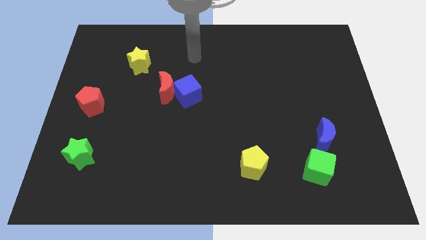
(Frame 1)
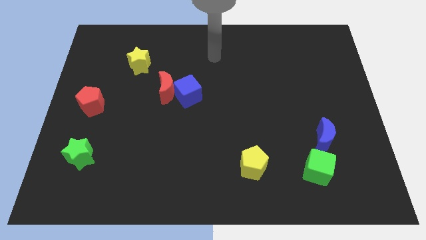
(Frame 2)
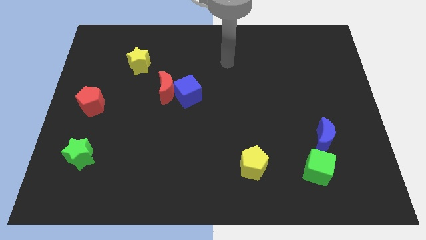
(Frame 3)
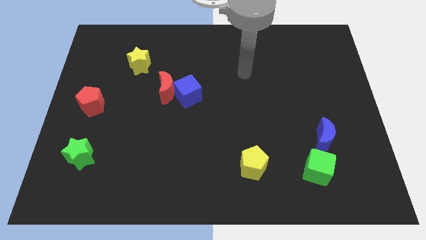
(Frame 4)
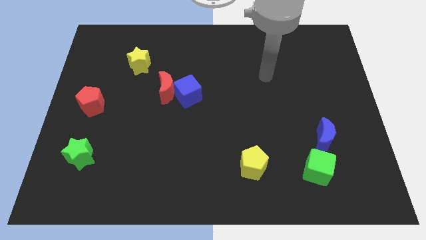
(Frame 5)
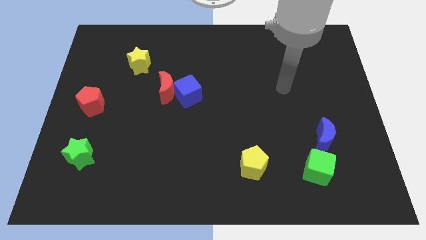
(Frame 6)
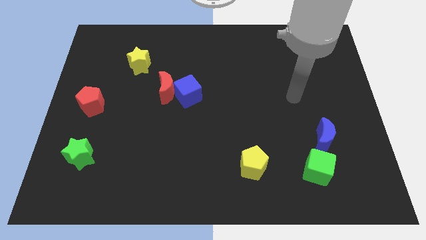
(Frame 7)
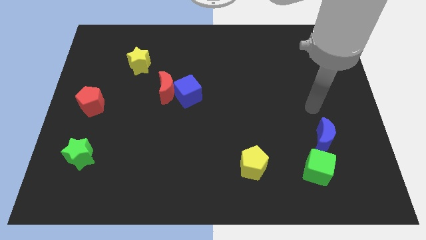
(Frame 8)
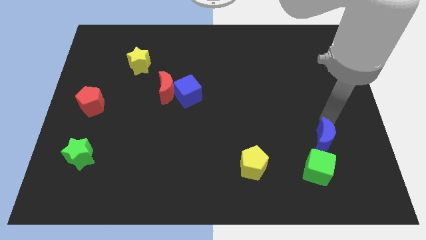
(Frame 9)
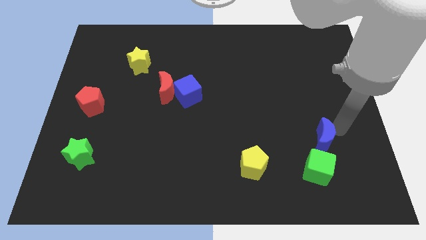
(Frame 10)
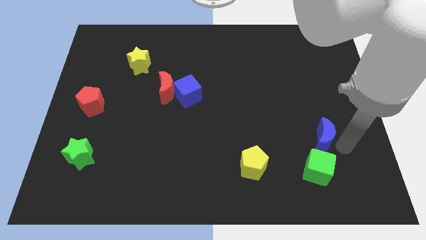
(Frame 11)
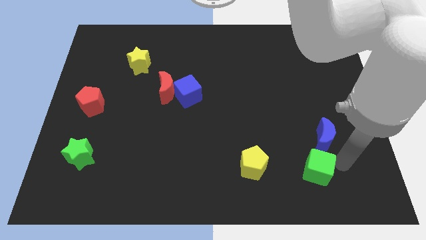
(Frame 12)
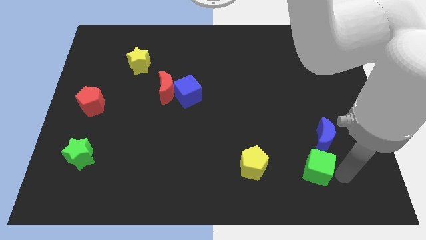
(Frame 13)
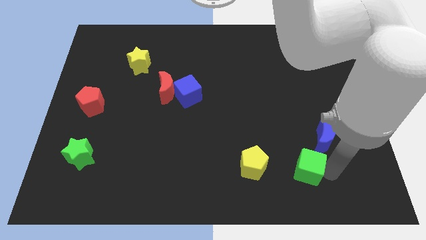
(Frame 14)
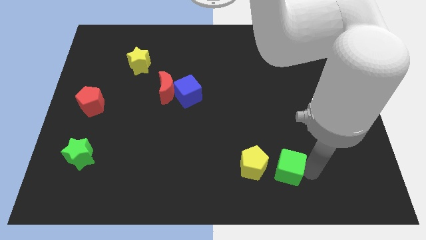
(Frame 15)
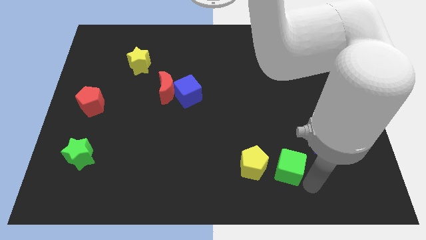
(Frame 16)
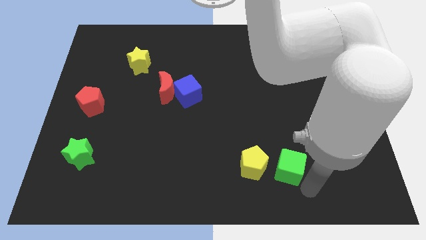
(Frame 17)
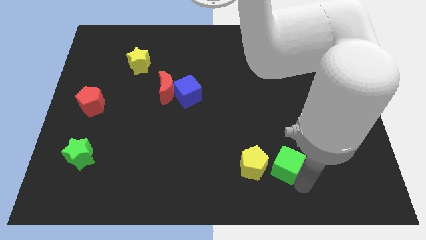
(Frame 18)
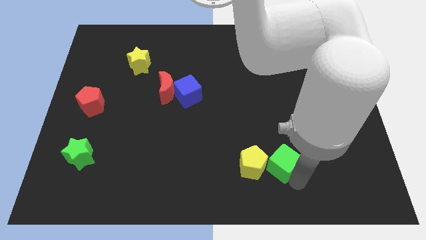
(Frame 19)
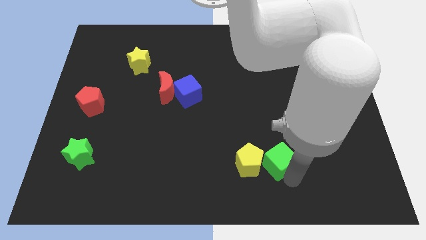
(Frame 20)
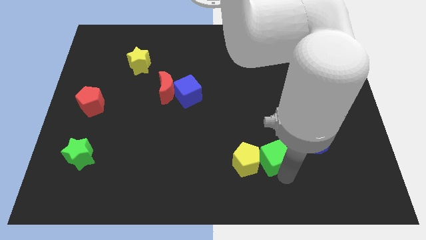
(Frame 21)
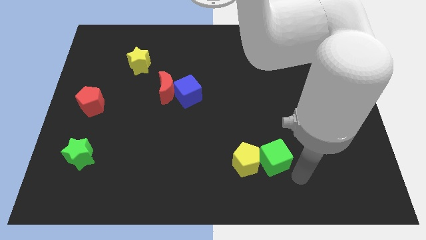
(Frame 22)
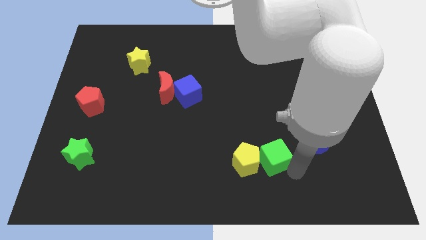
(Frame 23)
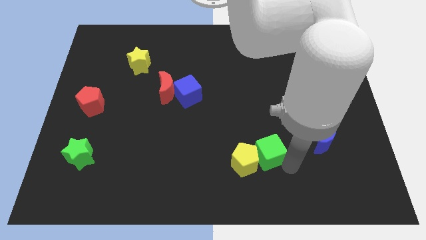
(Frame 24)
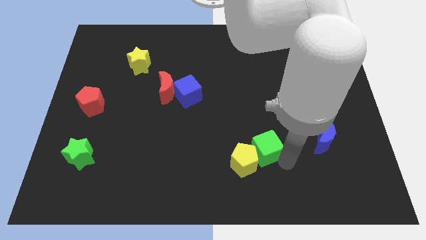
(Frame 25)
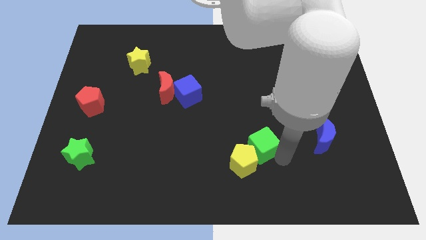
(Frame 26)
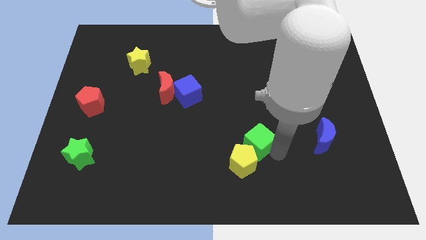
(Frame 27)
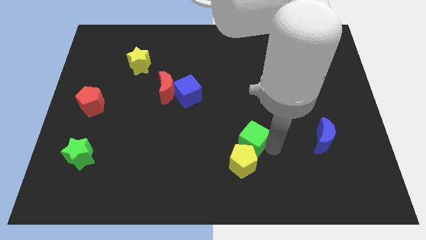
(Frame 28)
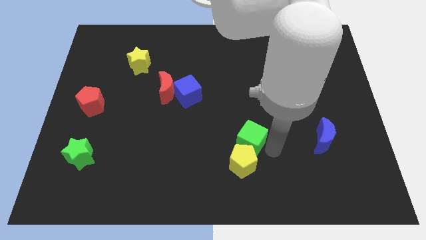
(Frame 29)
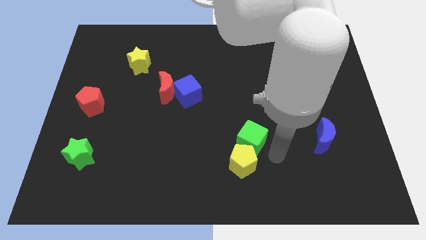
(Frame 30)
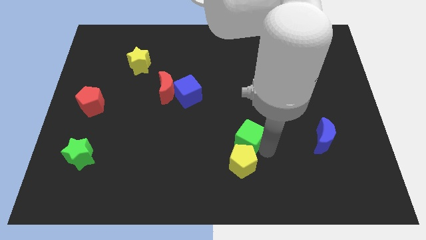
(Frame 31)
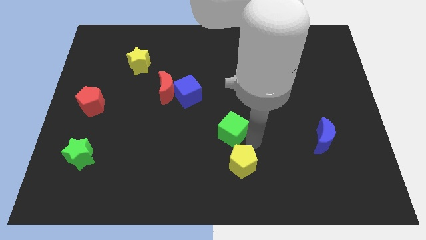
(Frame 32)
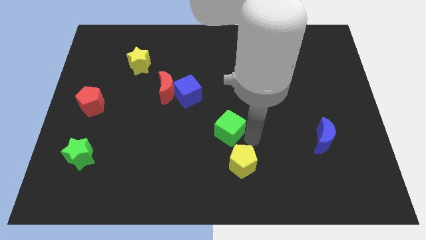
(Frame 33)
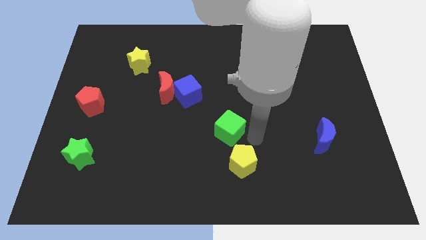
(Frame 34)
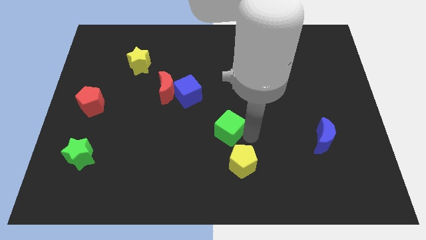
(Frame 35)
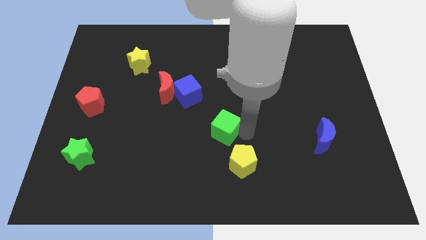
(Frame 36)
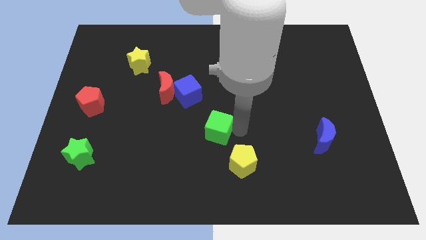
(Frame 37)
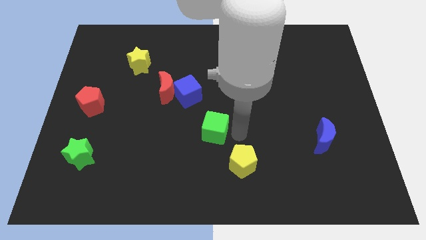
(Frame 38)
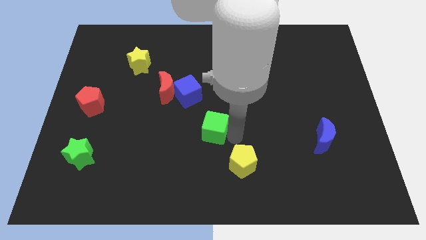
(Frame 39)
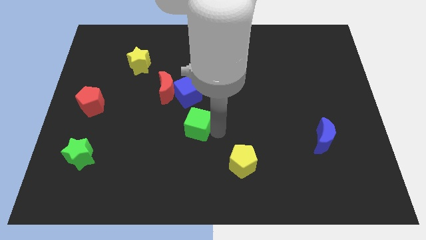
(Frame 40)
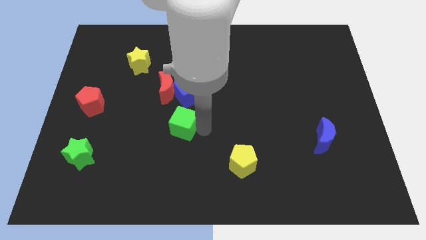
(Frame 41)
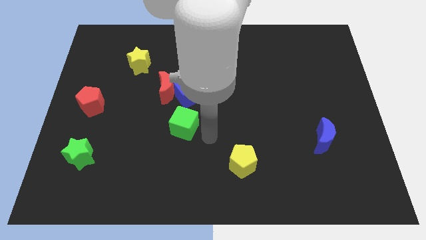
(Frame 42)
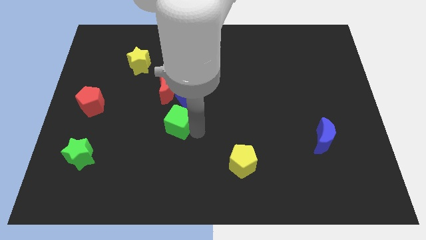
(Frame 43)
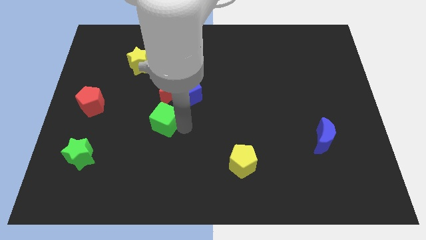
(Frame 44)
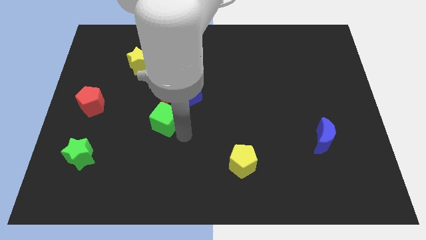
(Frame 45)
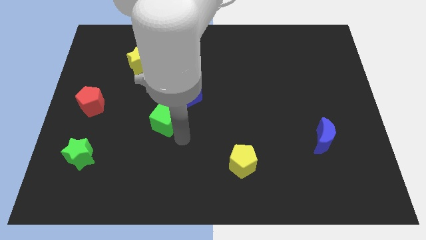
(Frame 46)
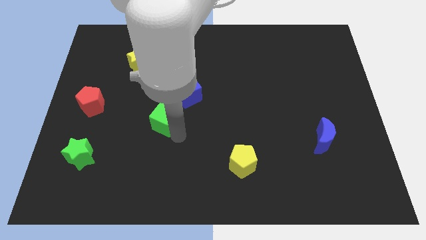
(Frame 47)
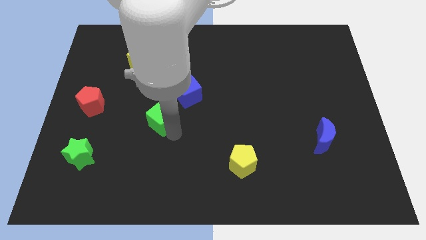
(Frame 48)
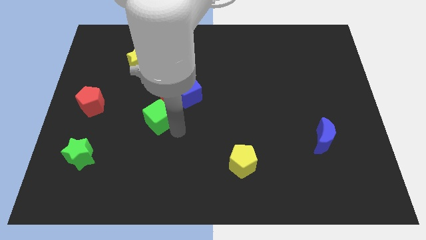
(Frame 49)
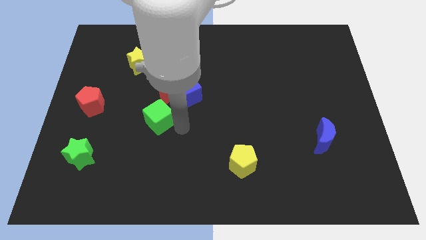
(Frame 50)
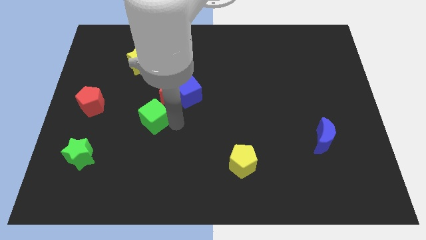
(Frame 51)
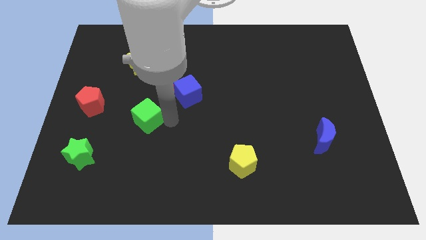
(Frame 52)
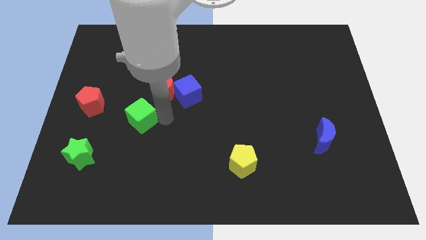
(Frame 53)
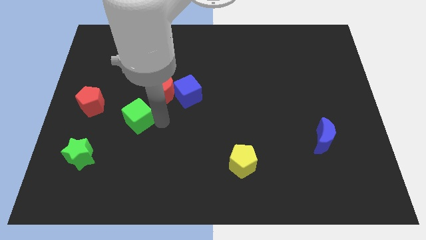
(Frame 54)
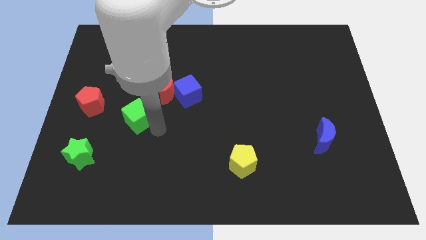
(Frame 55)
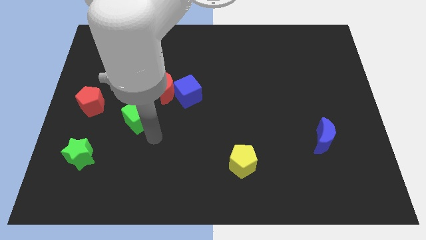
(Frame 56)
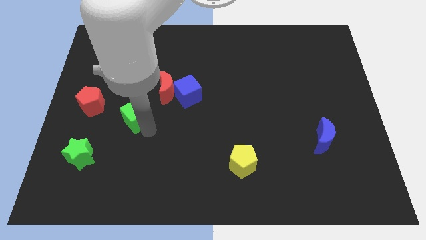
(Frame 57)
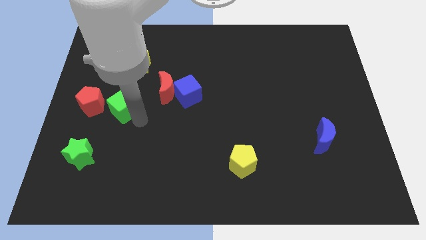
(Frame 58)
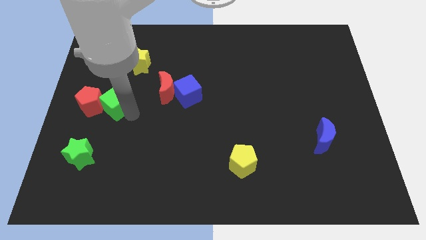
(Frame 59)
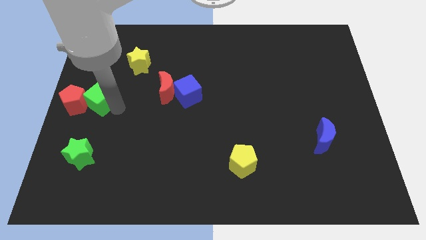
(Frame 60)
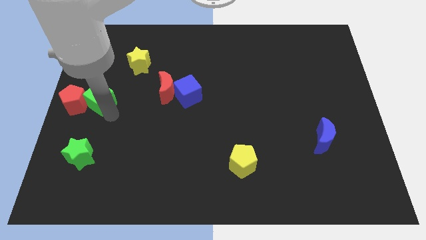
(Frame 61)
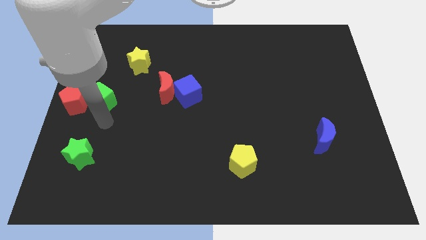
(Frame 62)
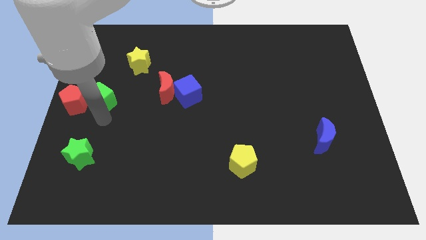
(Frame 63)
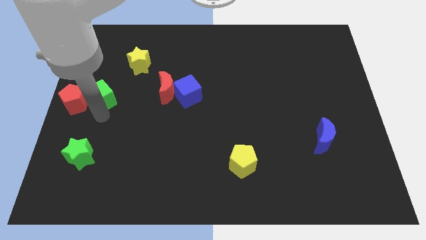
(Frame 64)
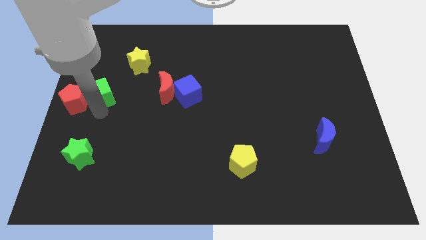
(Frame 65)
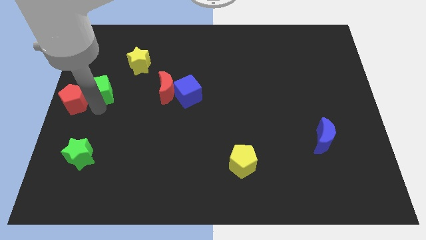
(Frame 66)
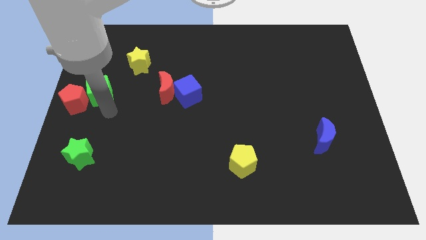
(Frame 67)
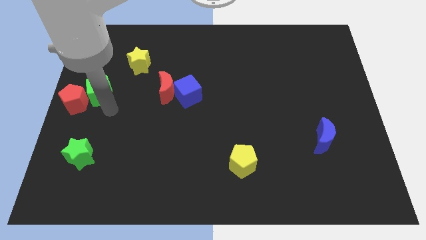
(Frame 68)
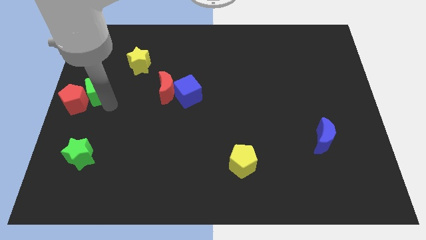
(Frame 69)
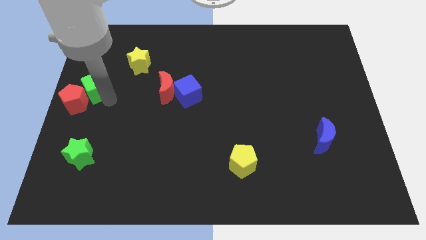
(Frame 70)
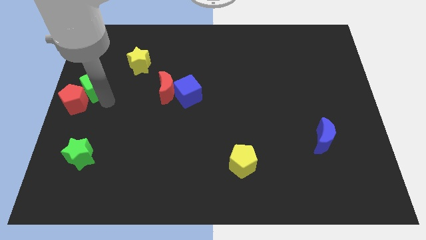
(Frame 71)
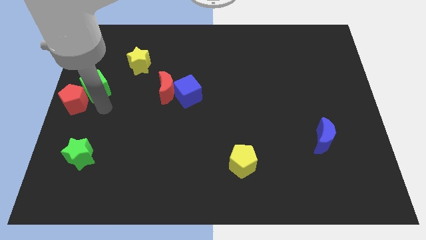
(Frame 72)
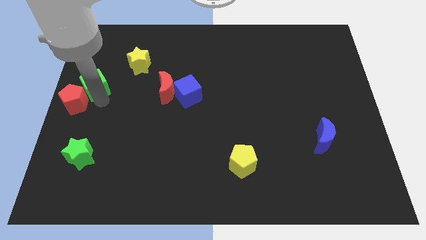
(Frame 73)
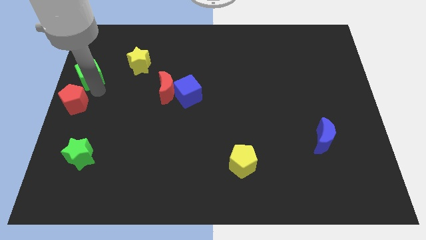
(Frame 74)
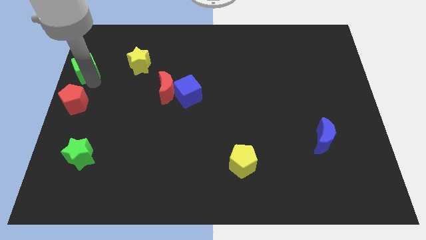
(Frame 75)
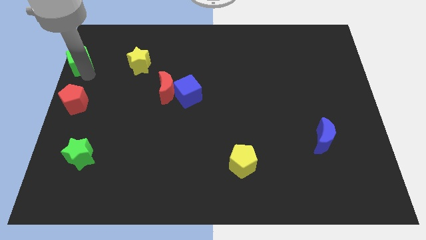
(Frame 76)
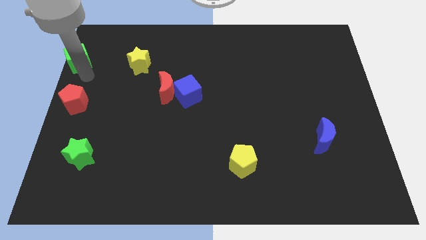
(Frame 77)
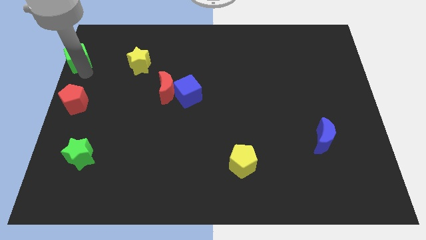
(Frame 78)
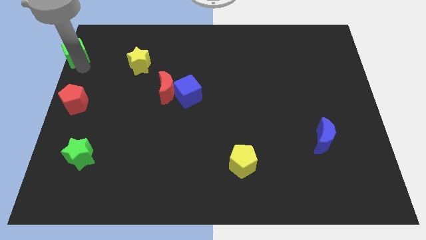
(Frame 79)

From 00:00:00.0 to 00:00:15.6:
slide the green cube to the top left corner
